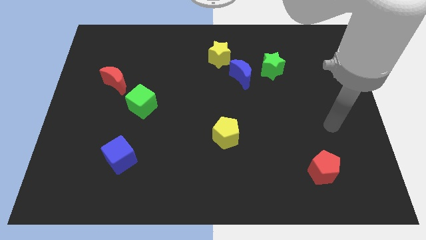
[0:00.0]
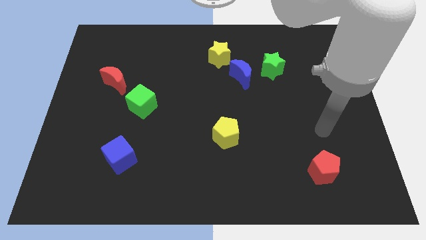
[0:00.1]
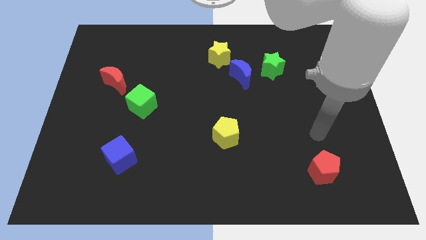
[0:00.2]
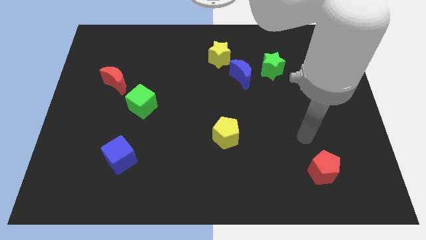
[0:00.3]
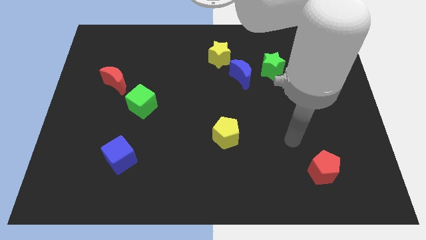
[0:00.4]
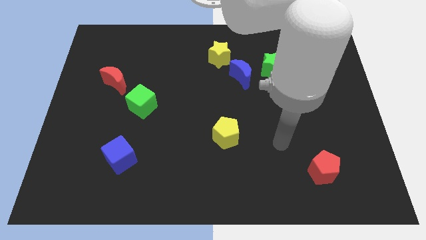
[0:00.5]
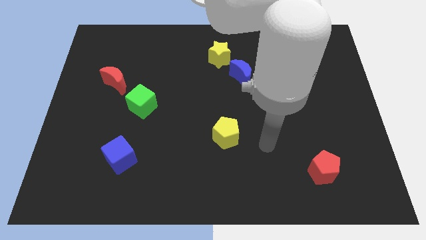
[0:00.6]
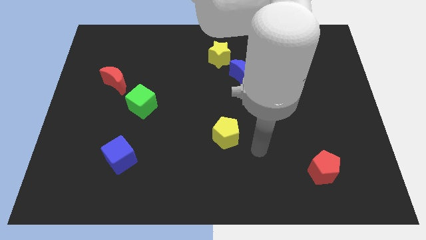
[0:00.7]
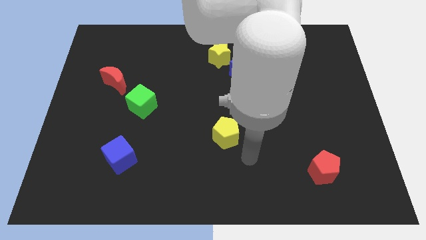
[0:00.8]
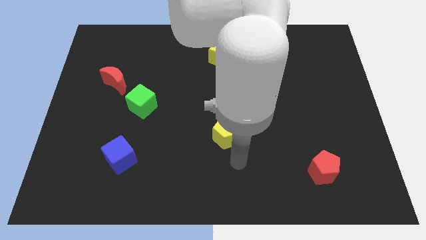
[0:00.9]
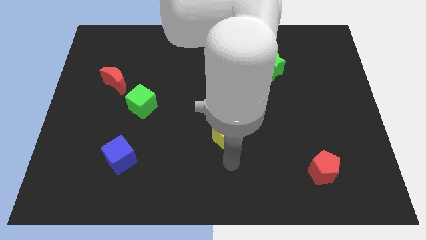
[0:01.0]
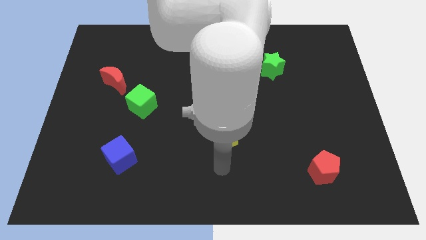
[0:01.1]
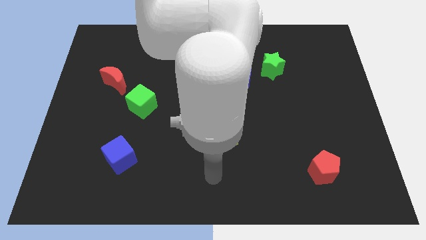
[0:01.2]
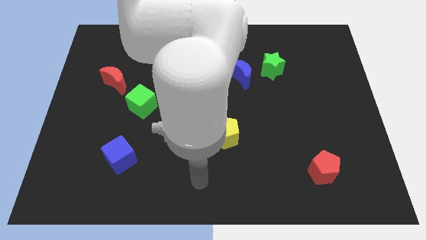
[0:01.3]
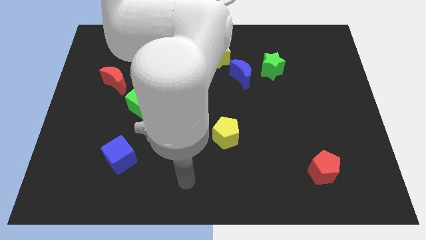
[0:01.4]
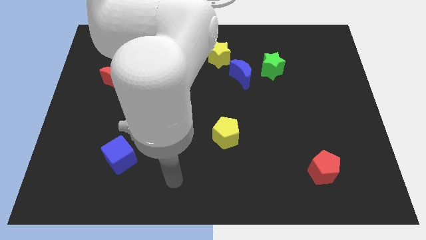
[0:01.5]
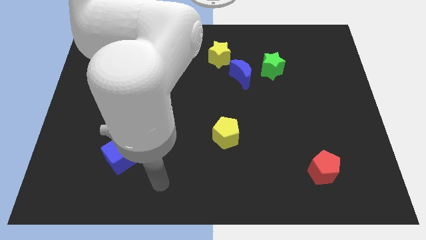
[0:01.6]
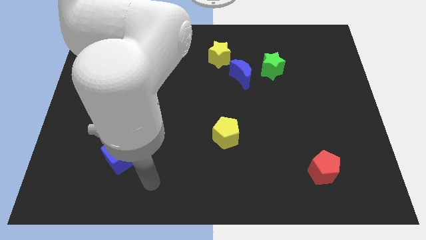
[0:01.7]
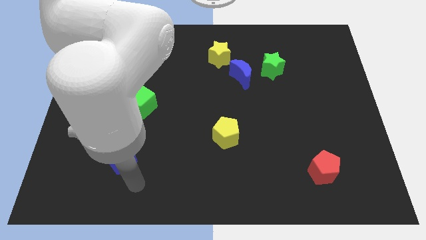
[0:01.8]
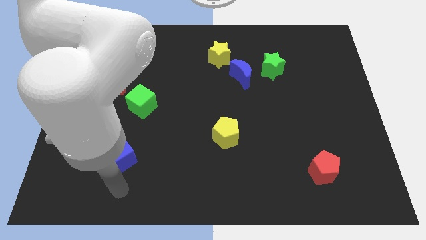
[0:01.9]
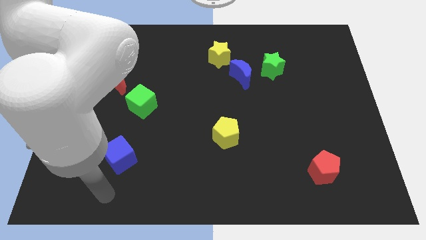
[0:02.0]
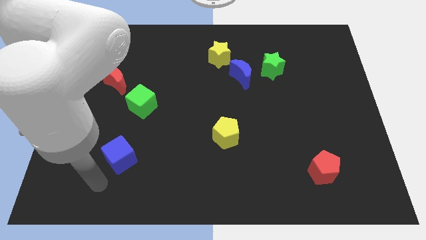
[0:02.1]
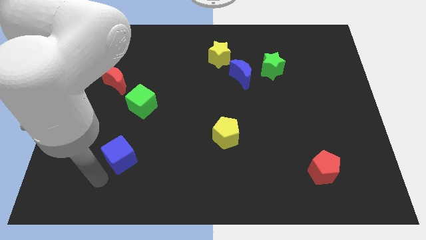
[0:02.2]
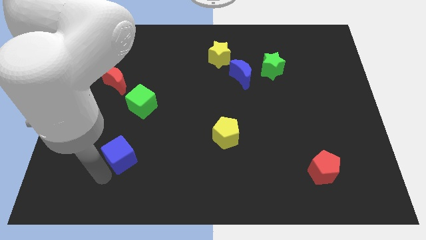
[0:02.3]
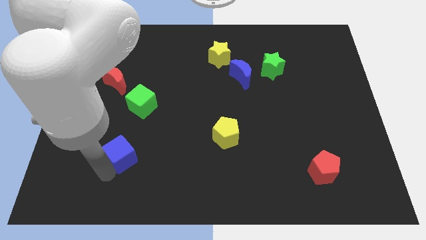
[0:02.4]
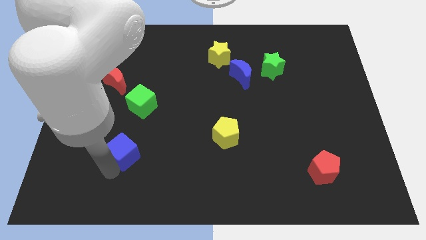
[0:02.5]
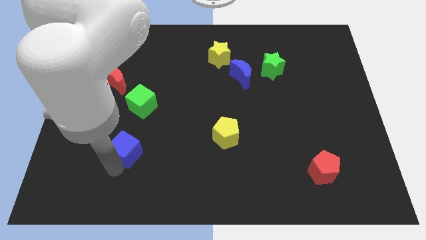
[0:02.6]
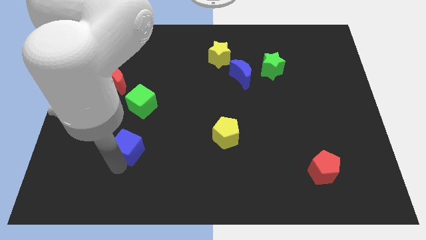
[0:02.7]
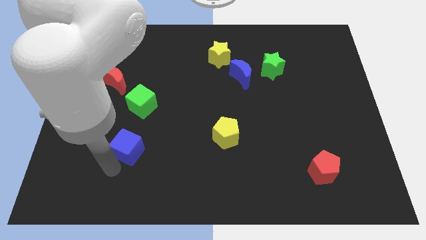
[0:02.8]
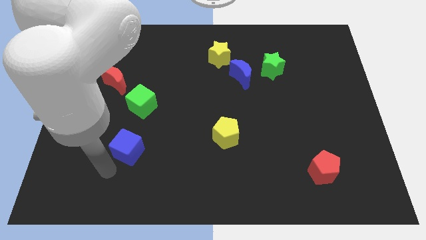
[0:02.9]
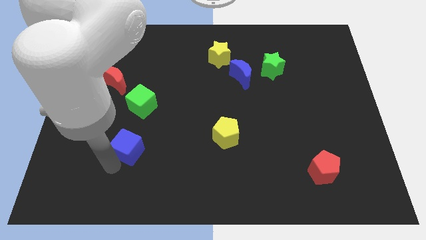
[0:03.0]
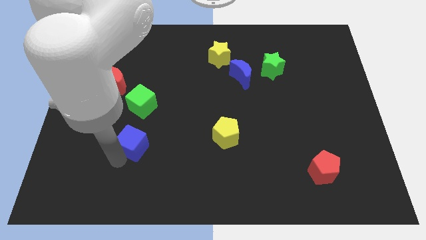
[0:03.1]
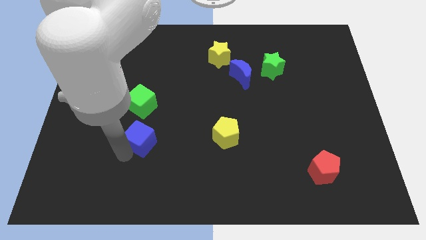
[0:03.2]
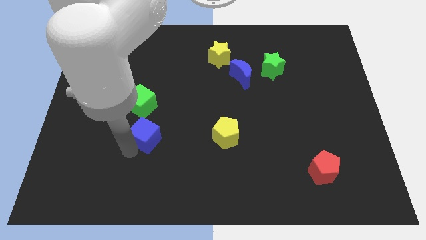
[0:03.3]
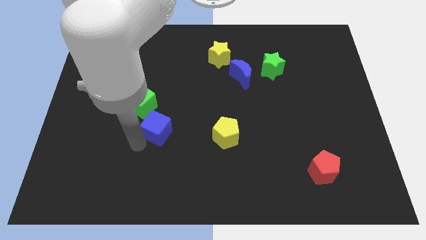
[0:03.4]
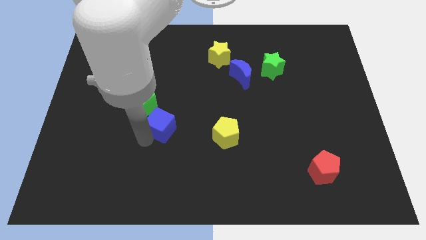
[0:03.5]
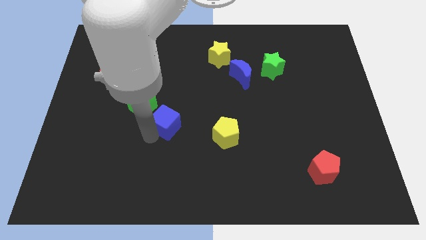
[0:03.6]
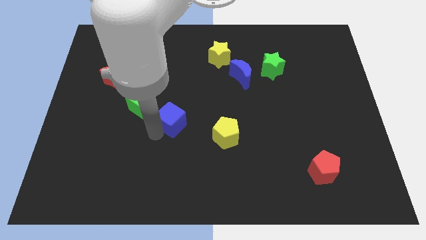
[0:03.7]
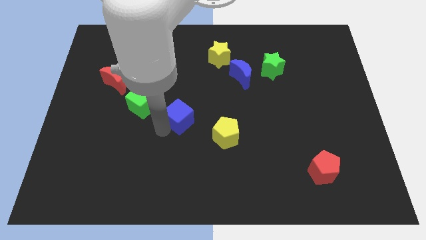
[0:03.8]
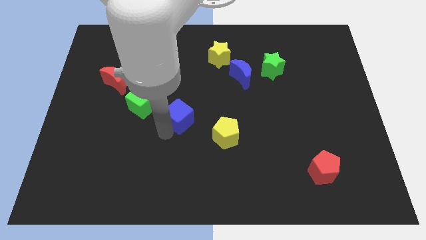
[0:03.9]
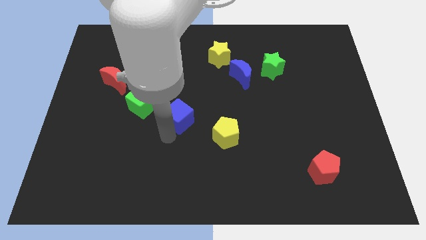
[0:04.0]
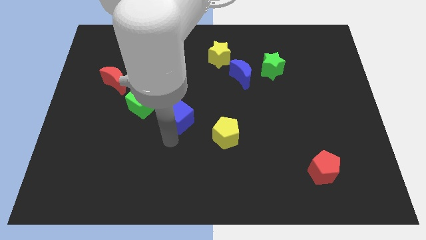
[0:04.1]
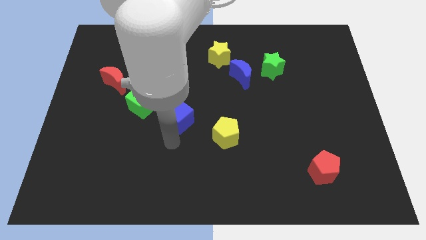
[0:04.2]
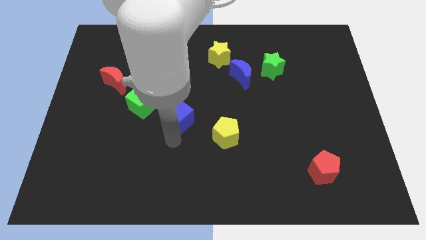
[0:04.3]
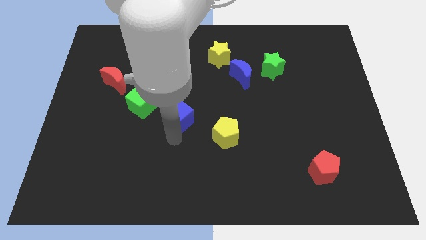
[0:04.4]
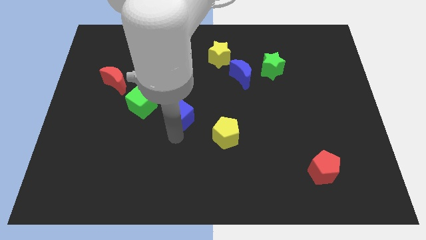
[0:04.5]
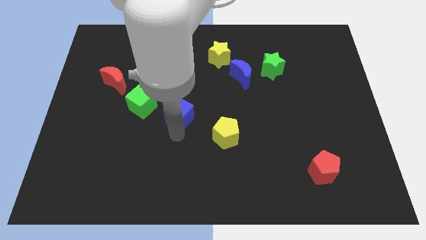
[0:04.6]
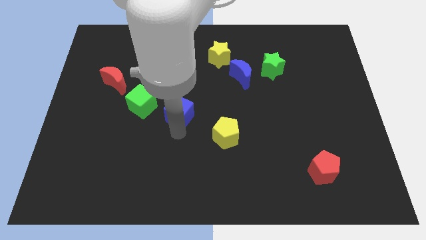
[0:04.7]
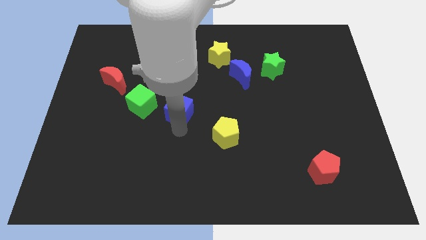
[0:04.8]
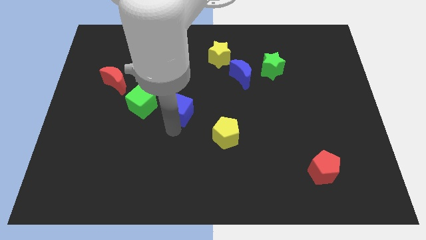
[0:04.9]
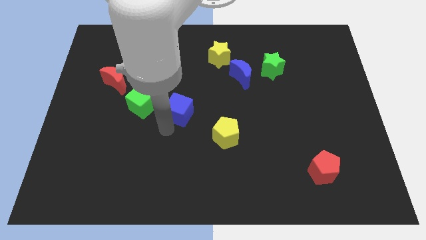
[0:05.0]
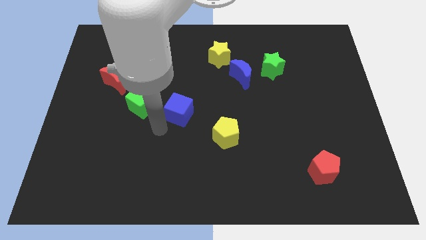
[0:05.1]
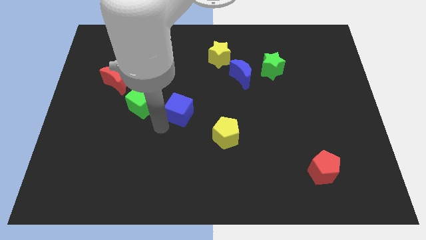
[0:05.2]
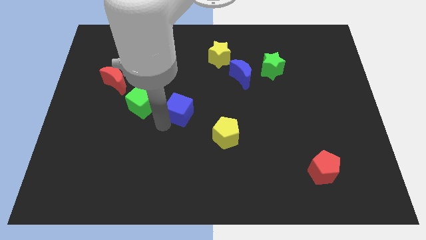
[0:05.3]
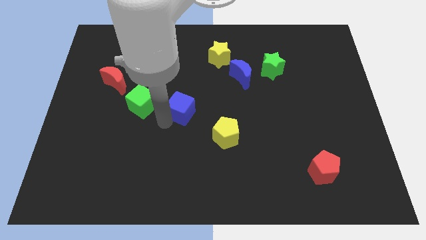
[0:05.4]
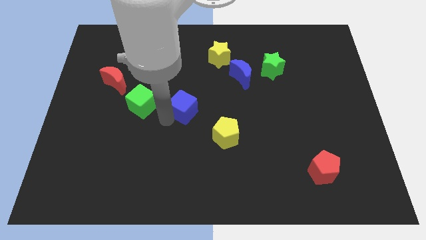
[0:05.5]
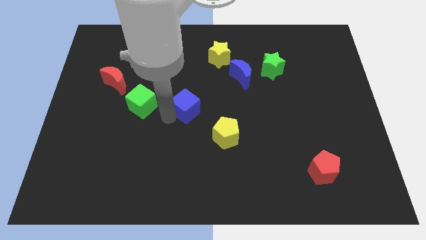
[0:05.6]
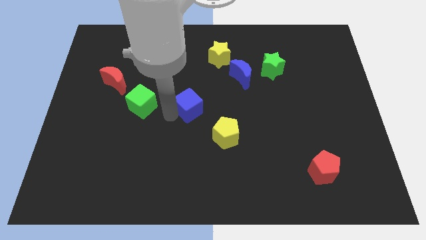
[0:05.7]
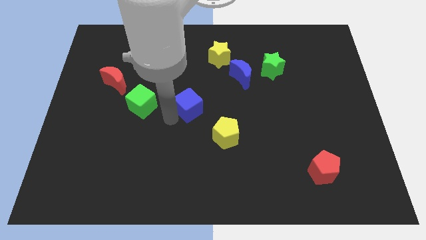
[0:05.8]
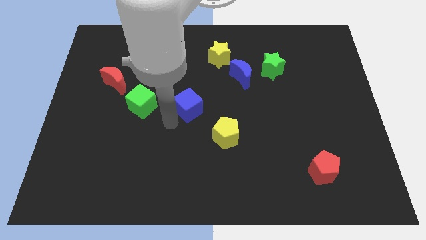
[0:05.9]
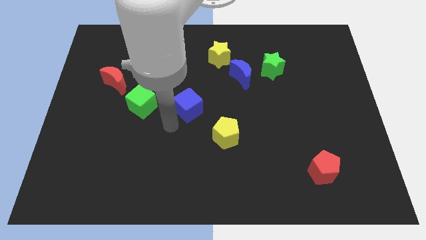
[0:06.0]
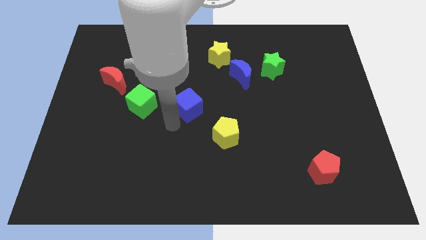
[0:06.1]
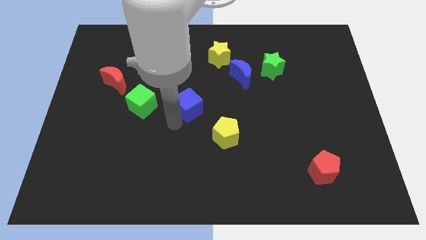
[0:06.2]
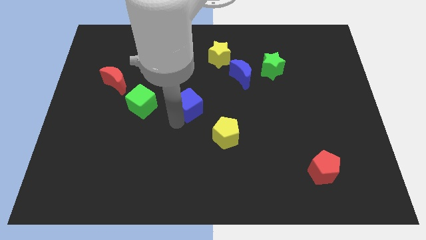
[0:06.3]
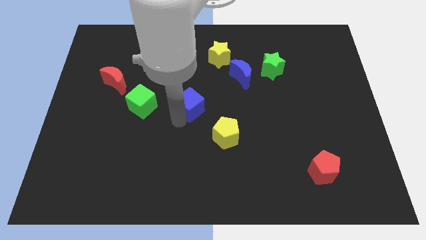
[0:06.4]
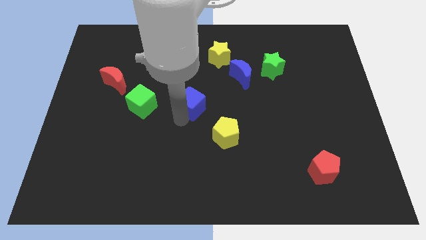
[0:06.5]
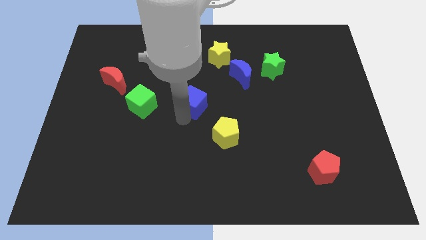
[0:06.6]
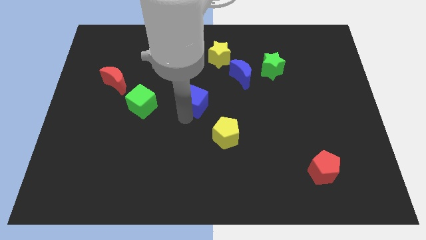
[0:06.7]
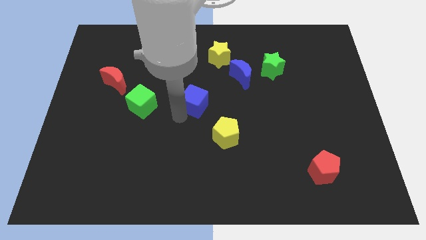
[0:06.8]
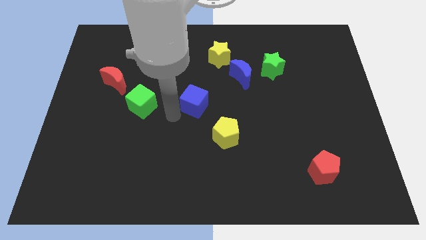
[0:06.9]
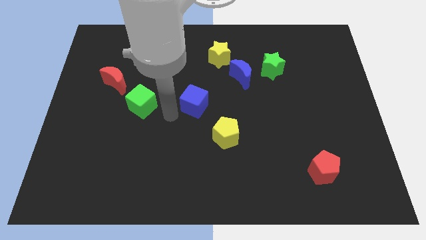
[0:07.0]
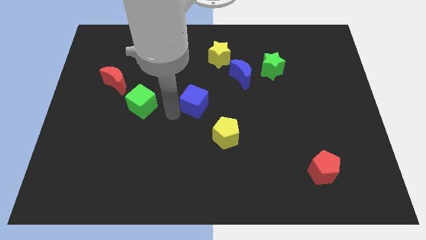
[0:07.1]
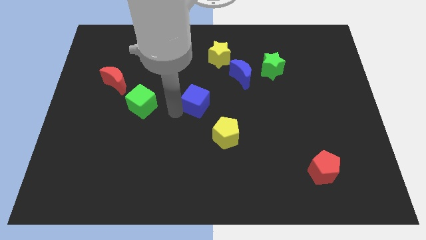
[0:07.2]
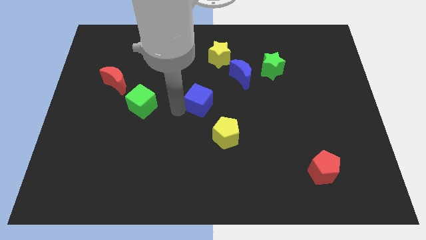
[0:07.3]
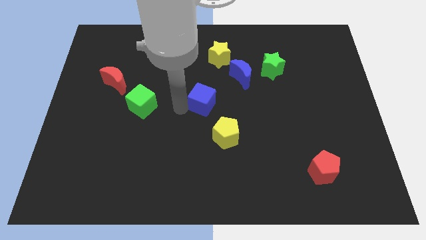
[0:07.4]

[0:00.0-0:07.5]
move the blue cube to the bottom left of the blue moon

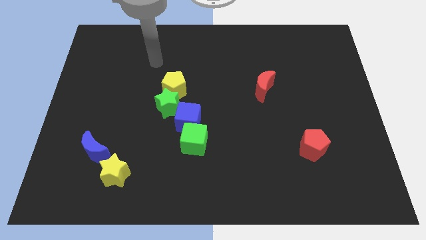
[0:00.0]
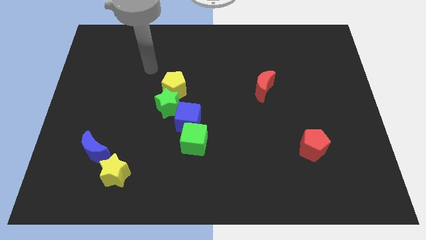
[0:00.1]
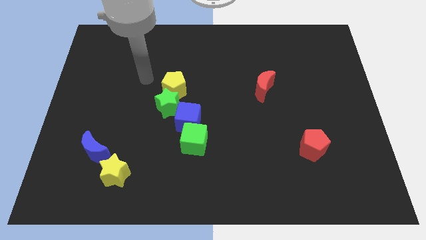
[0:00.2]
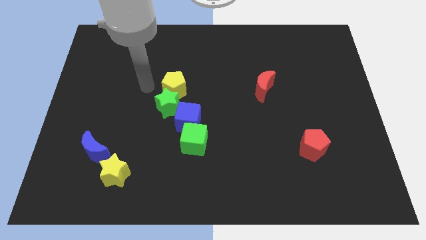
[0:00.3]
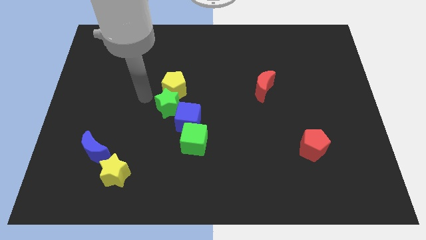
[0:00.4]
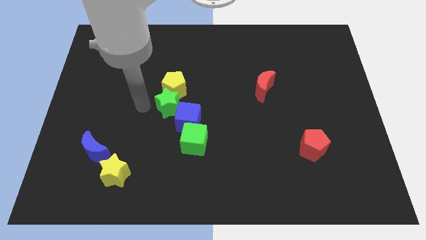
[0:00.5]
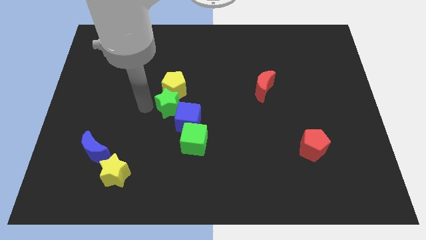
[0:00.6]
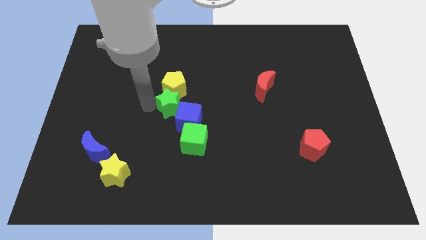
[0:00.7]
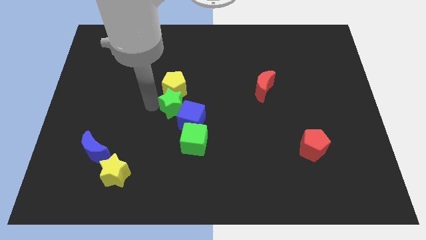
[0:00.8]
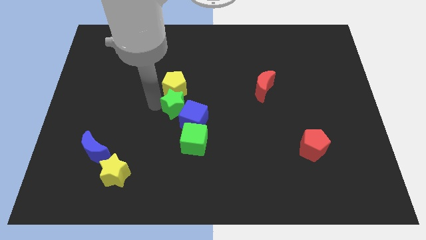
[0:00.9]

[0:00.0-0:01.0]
move the green star above the green cube
